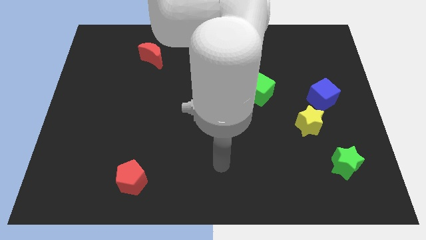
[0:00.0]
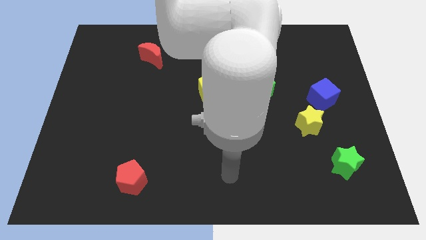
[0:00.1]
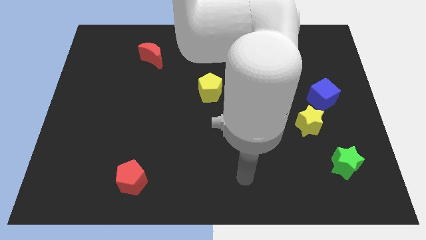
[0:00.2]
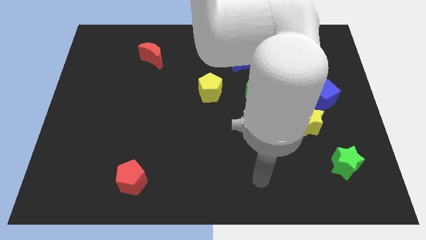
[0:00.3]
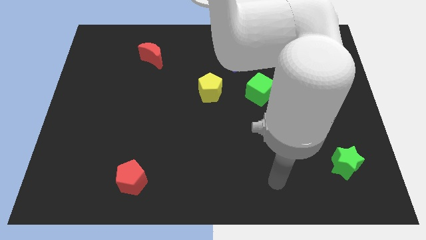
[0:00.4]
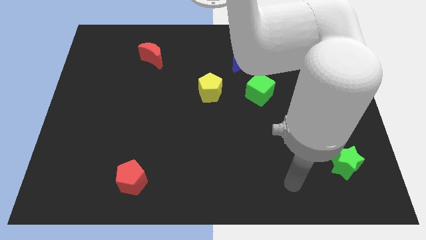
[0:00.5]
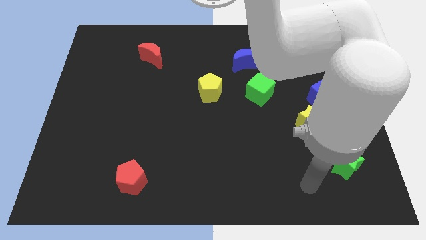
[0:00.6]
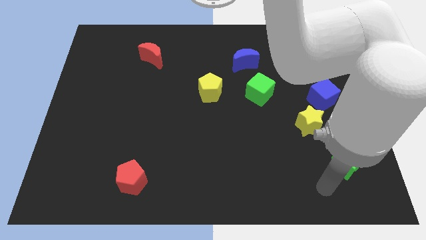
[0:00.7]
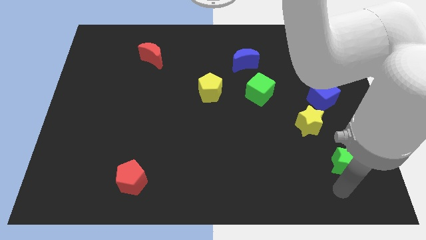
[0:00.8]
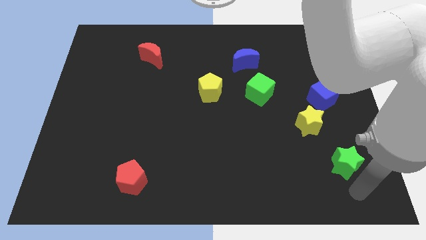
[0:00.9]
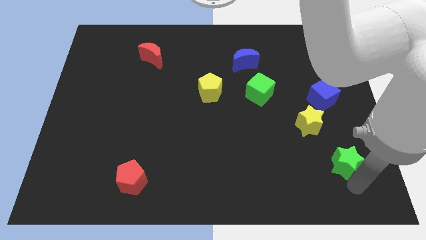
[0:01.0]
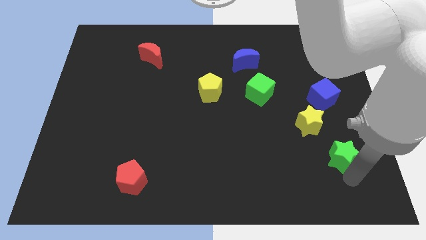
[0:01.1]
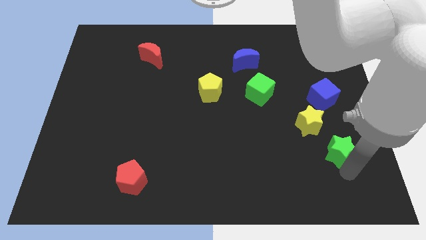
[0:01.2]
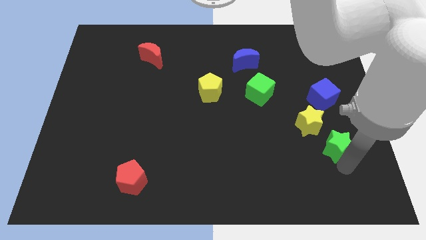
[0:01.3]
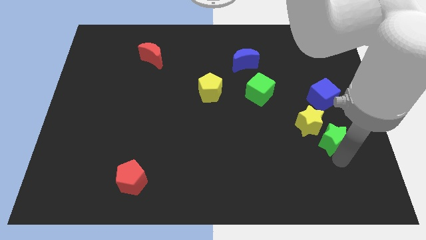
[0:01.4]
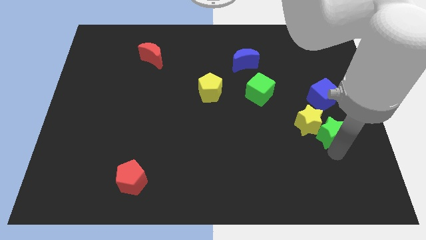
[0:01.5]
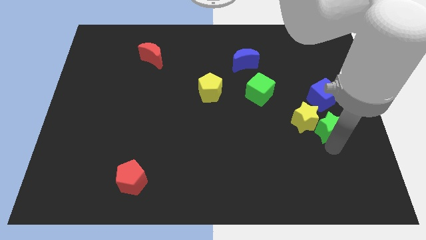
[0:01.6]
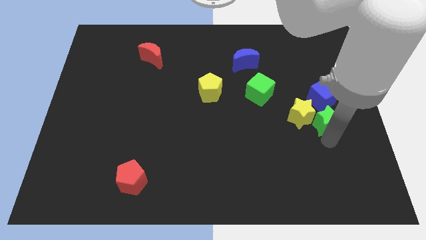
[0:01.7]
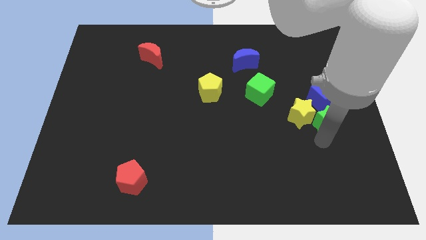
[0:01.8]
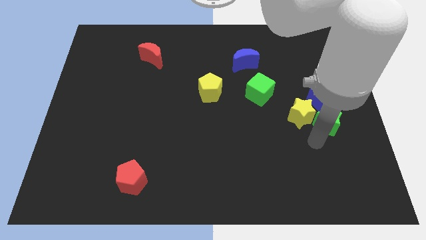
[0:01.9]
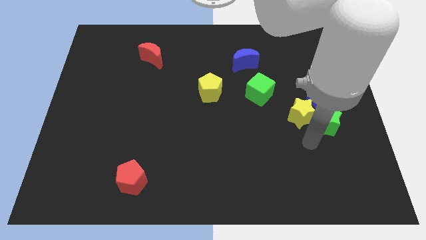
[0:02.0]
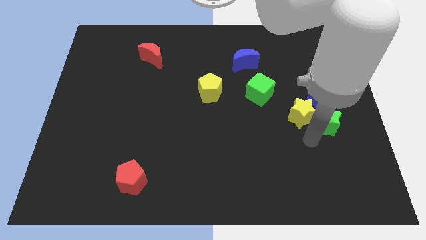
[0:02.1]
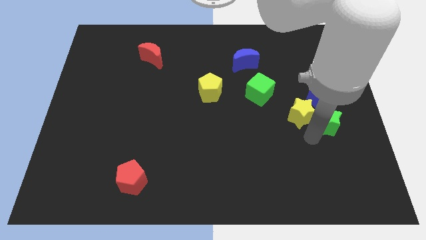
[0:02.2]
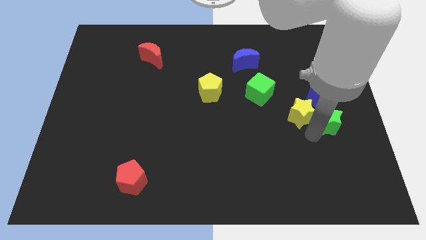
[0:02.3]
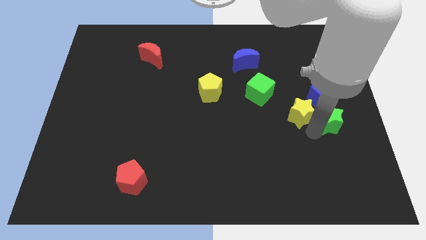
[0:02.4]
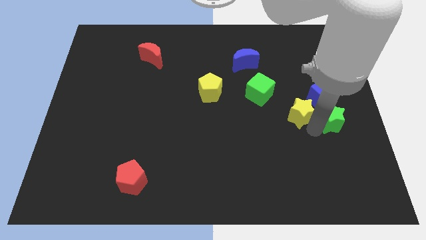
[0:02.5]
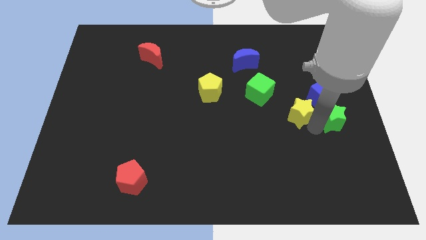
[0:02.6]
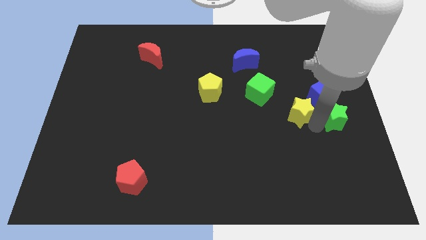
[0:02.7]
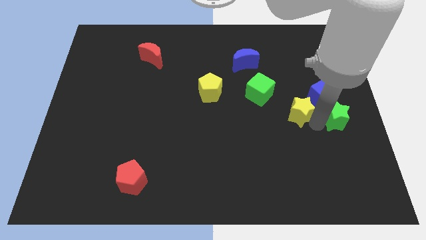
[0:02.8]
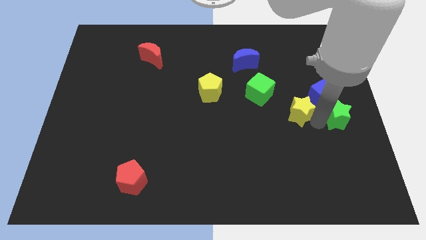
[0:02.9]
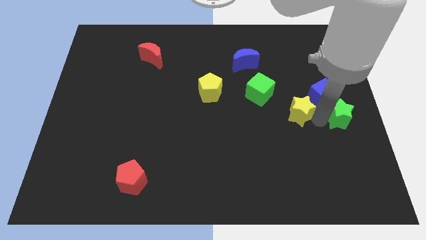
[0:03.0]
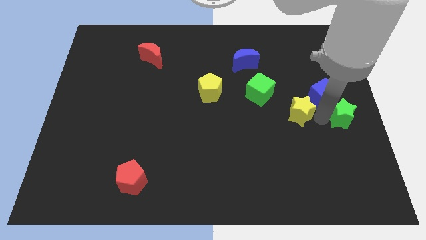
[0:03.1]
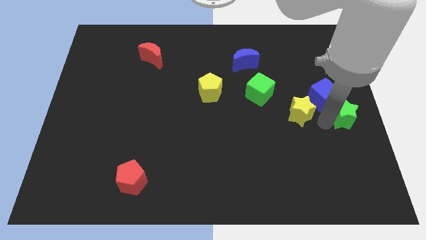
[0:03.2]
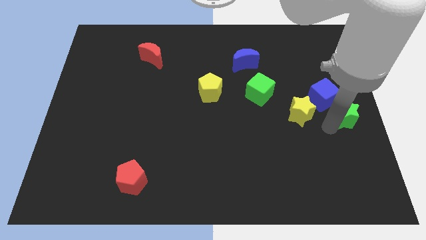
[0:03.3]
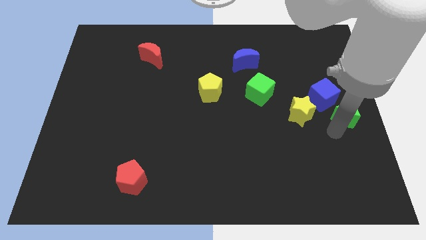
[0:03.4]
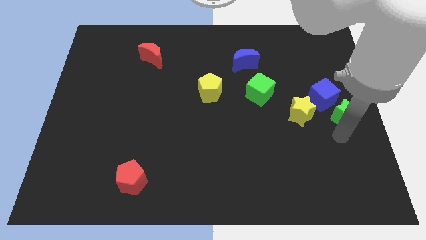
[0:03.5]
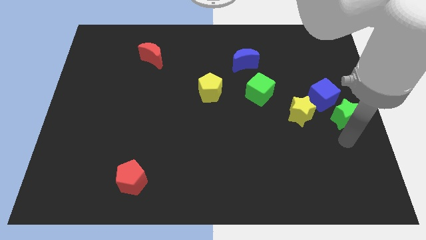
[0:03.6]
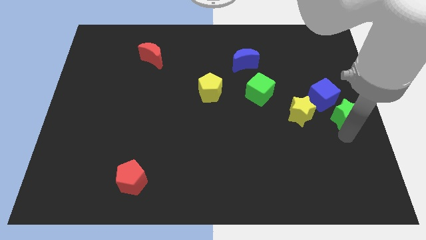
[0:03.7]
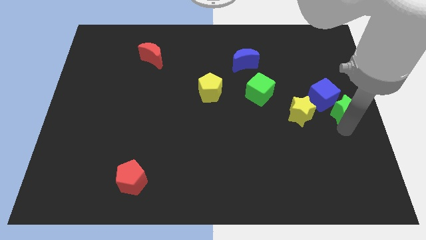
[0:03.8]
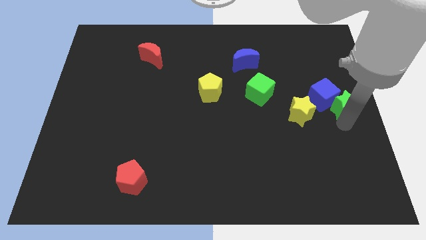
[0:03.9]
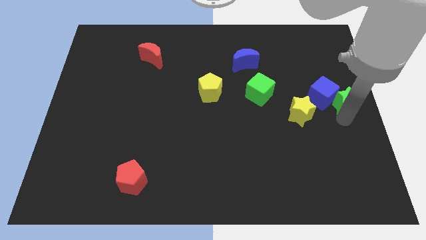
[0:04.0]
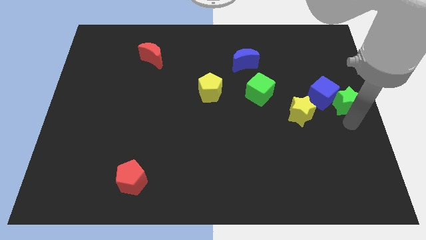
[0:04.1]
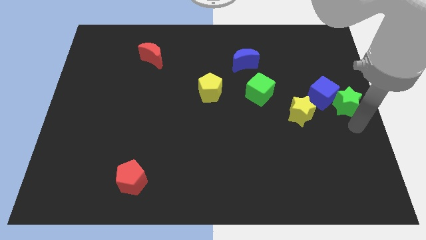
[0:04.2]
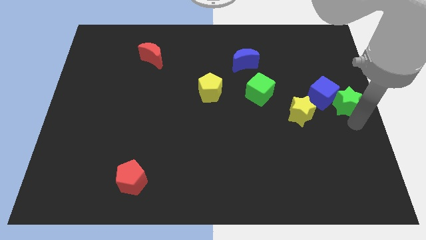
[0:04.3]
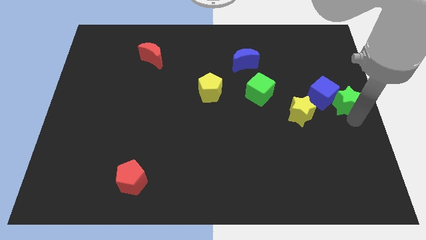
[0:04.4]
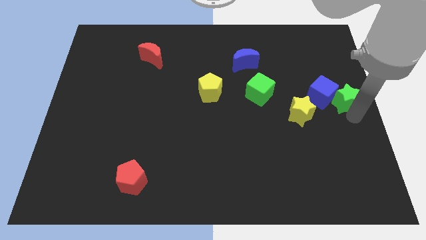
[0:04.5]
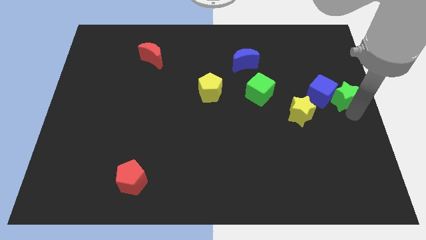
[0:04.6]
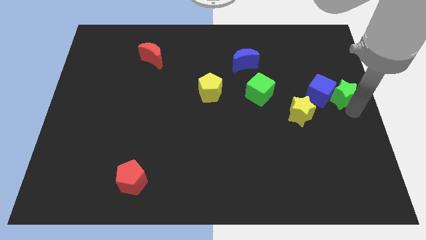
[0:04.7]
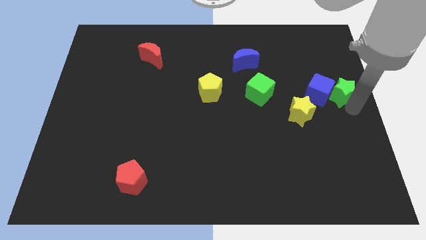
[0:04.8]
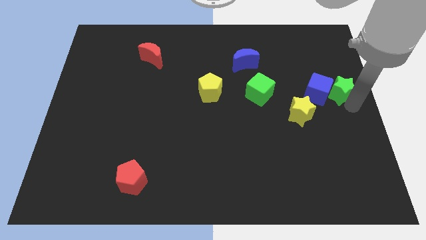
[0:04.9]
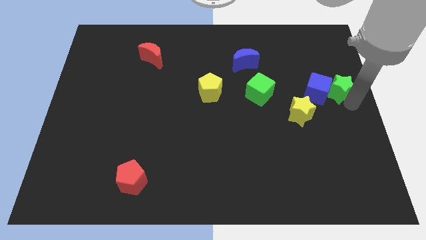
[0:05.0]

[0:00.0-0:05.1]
slide the green star up

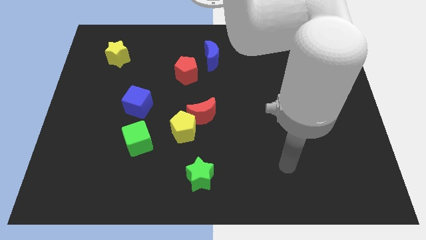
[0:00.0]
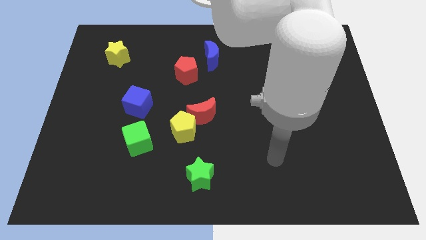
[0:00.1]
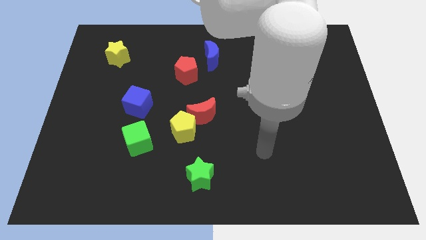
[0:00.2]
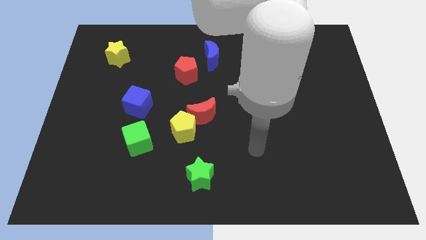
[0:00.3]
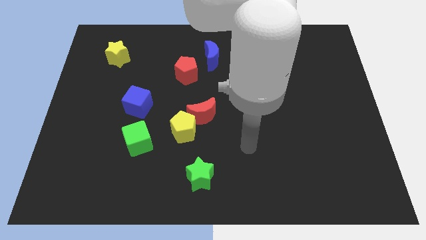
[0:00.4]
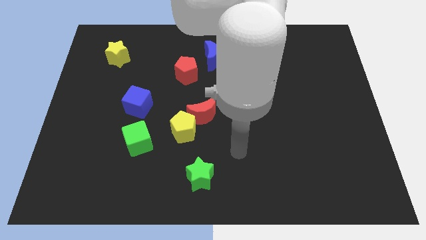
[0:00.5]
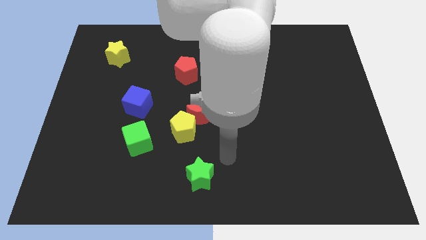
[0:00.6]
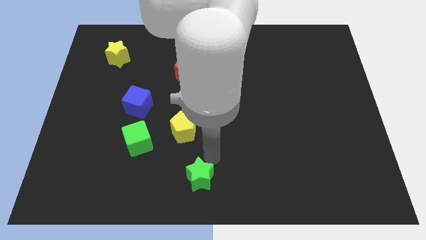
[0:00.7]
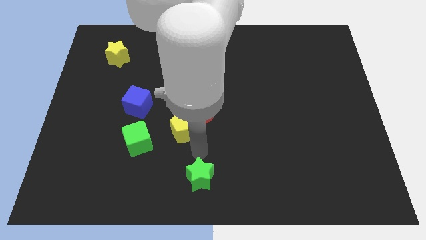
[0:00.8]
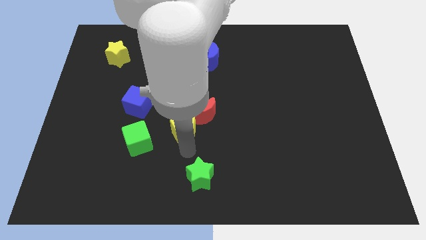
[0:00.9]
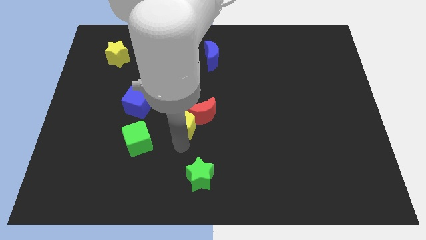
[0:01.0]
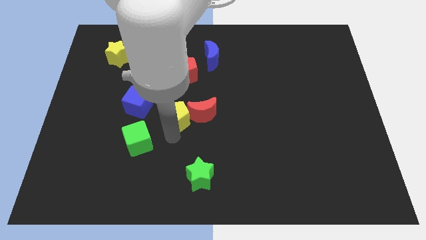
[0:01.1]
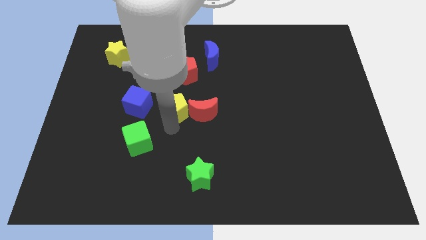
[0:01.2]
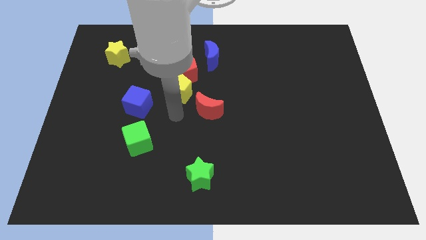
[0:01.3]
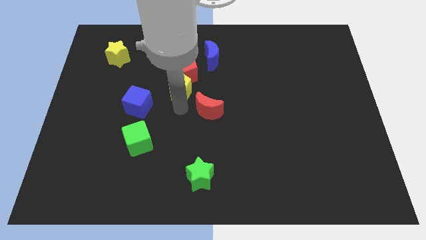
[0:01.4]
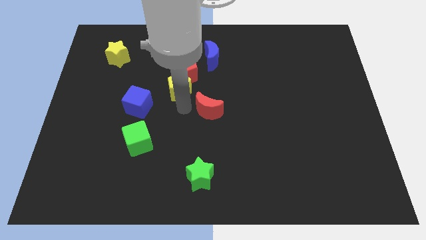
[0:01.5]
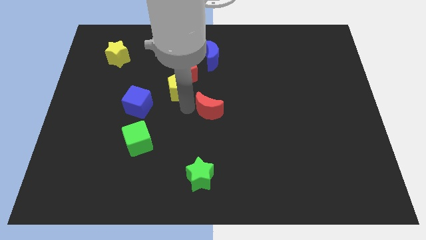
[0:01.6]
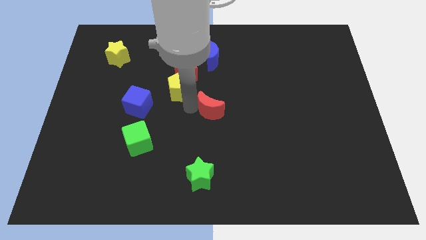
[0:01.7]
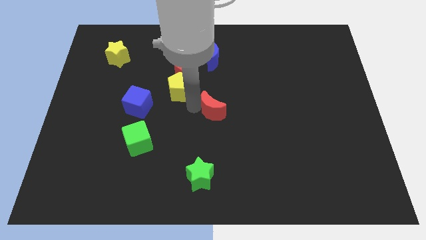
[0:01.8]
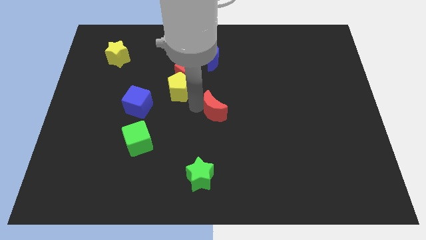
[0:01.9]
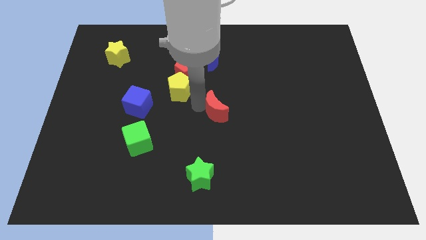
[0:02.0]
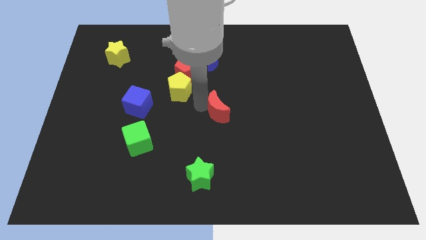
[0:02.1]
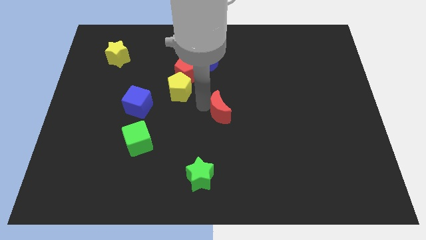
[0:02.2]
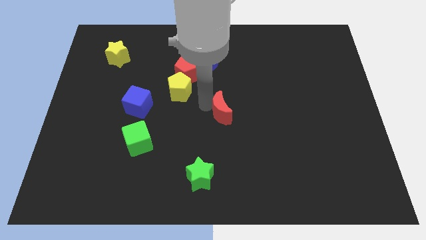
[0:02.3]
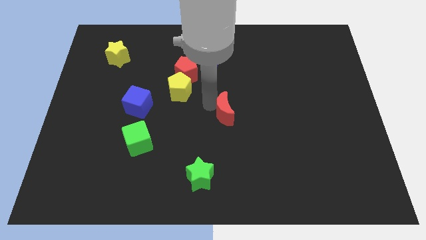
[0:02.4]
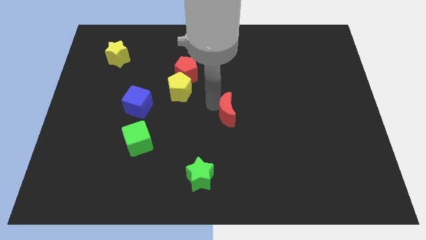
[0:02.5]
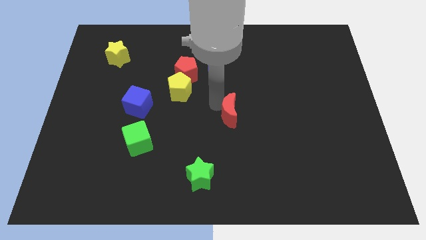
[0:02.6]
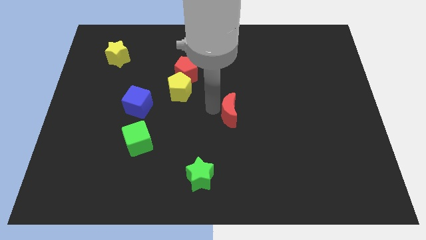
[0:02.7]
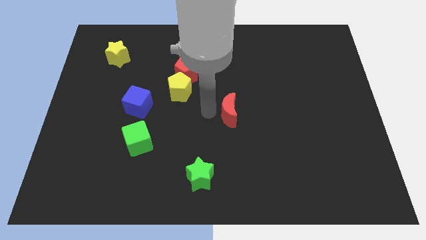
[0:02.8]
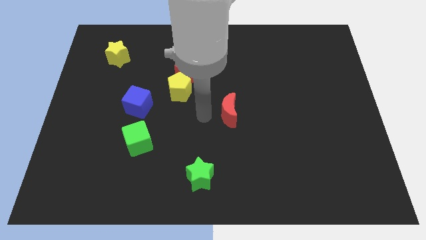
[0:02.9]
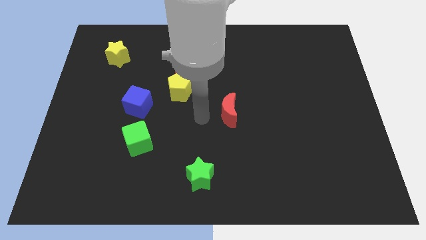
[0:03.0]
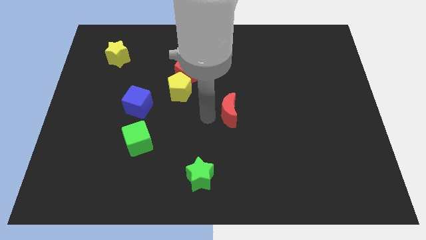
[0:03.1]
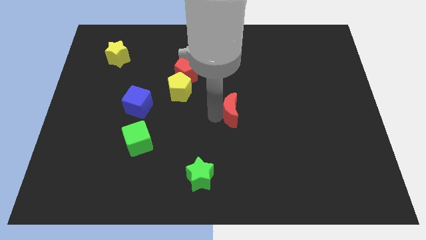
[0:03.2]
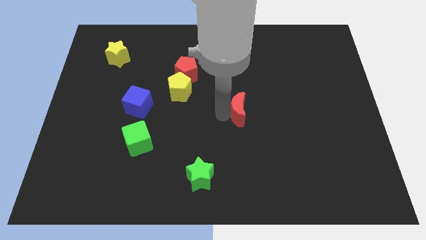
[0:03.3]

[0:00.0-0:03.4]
slightly push the red moon right

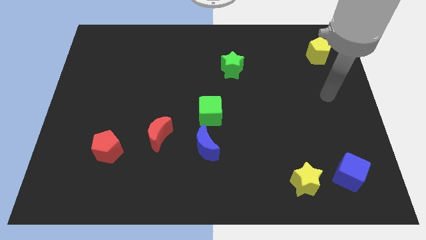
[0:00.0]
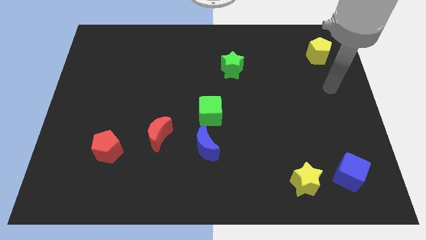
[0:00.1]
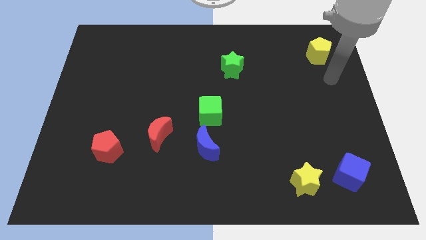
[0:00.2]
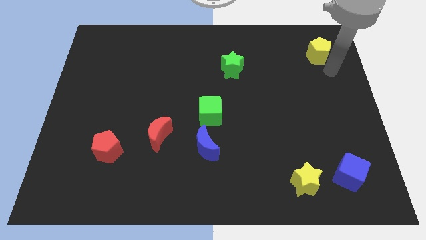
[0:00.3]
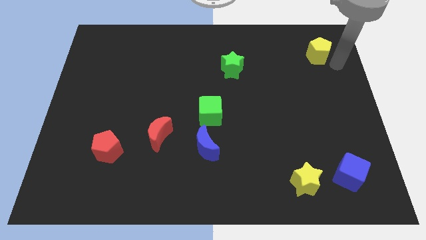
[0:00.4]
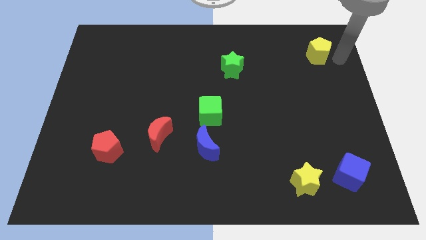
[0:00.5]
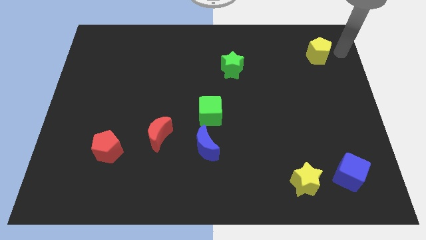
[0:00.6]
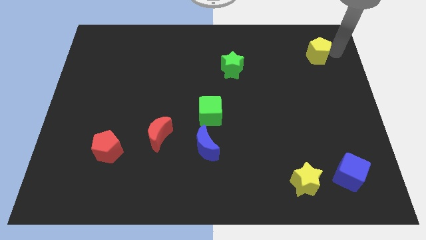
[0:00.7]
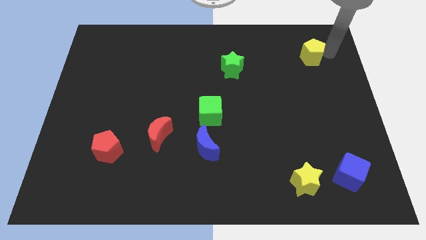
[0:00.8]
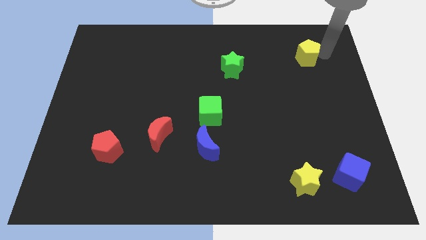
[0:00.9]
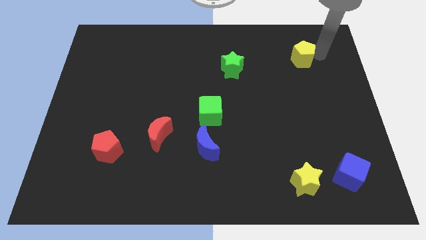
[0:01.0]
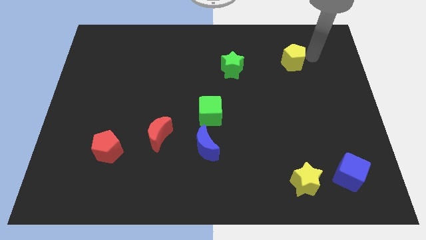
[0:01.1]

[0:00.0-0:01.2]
slightly move the yellow pentagon to the left
